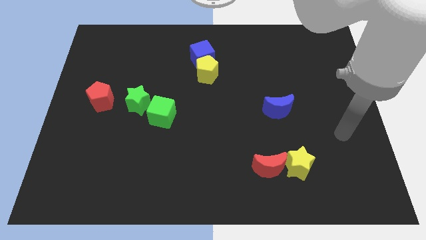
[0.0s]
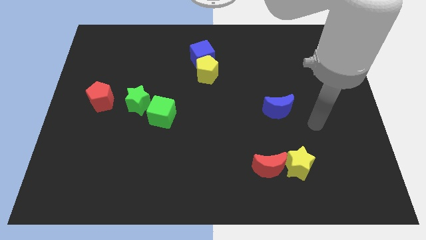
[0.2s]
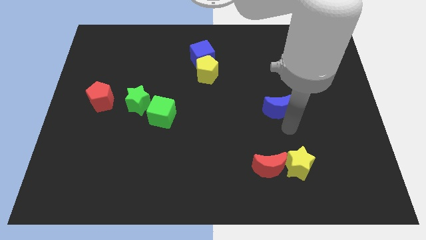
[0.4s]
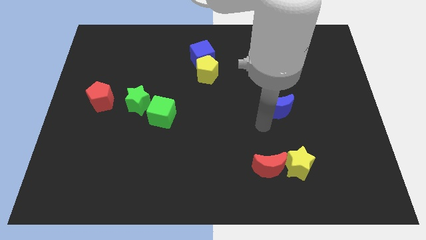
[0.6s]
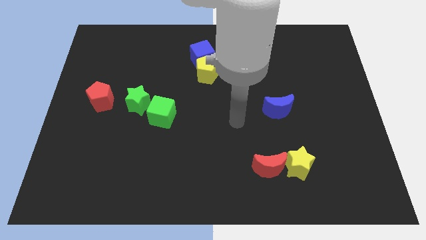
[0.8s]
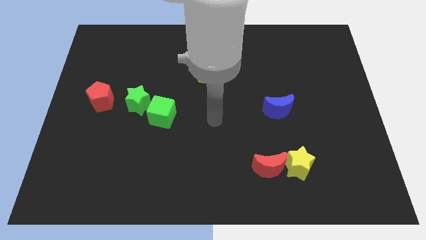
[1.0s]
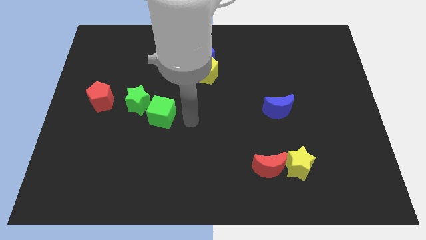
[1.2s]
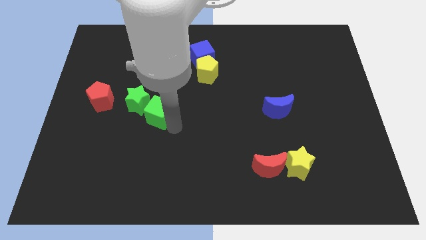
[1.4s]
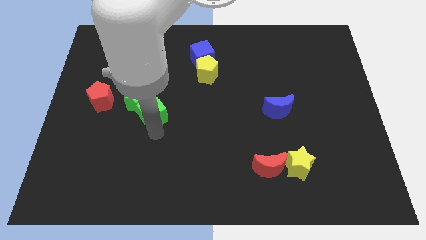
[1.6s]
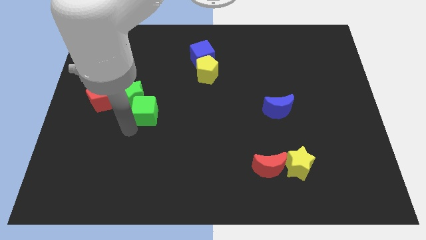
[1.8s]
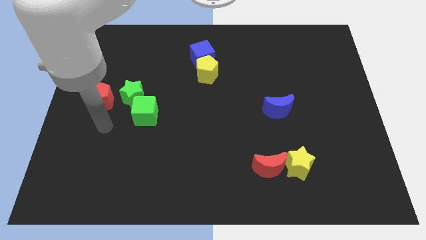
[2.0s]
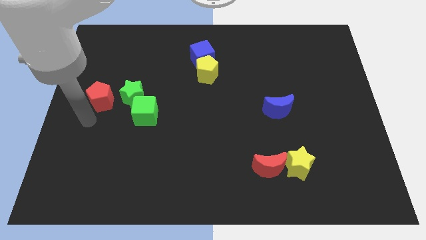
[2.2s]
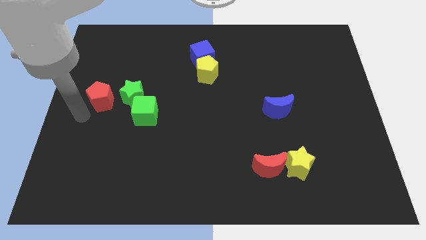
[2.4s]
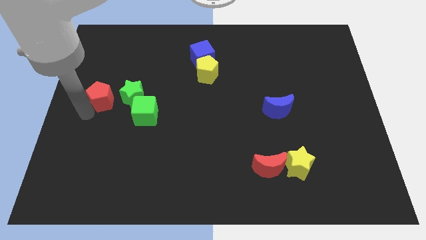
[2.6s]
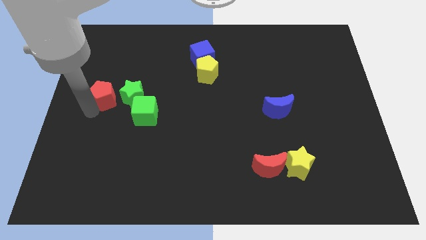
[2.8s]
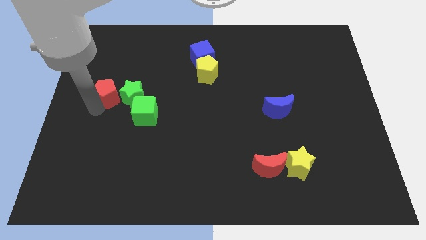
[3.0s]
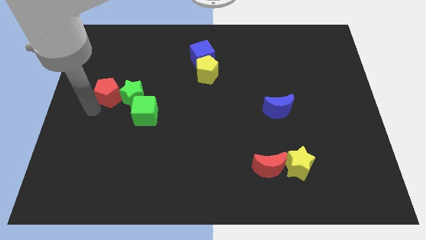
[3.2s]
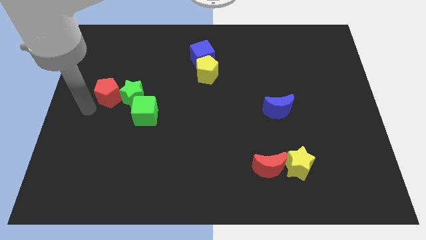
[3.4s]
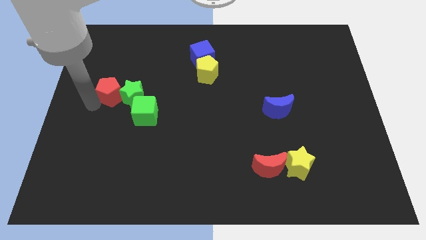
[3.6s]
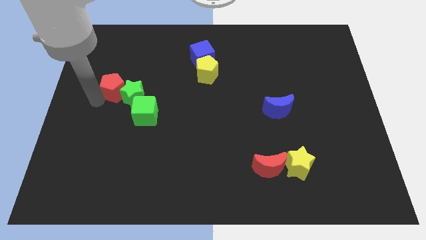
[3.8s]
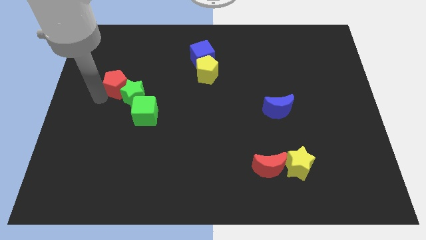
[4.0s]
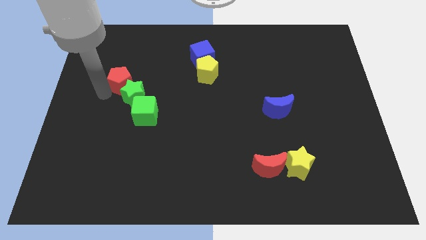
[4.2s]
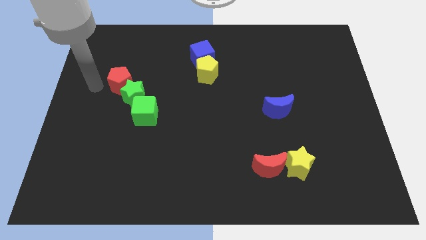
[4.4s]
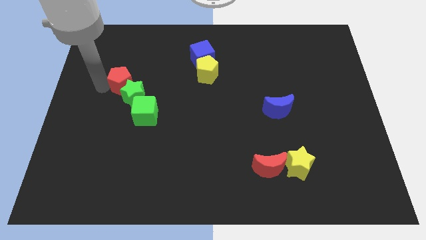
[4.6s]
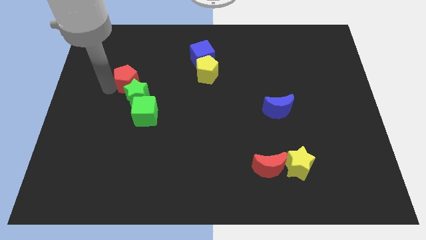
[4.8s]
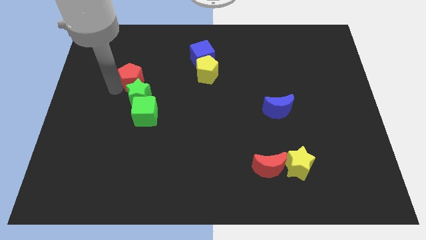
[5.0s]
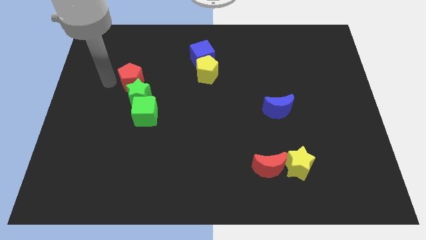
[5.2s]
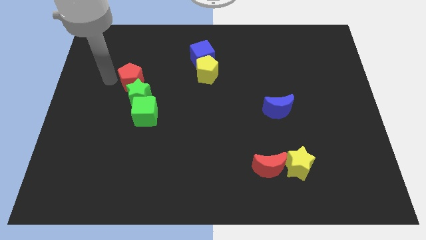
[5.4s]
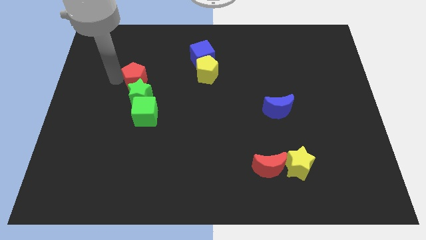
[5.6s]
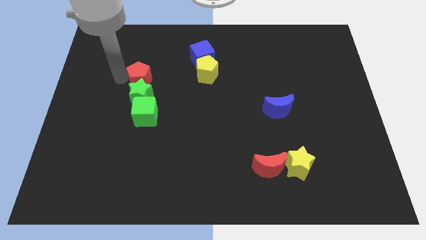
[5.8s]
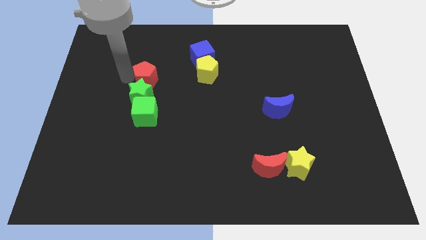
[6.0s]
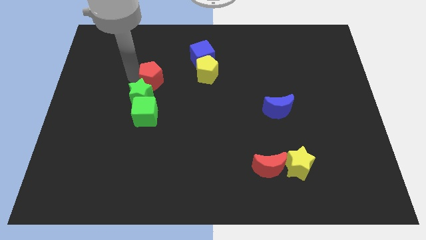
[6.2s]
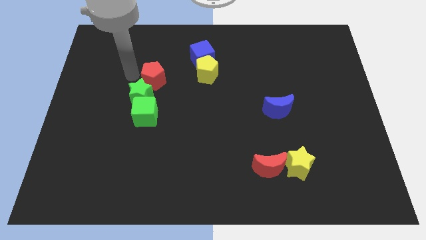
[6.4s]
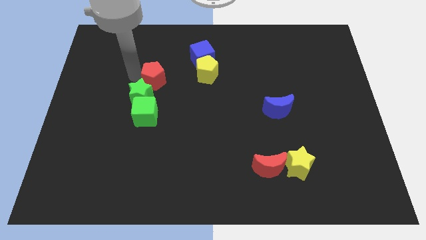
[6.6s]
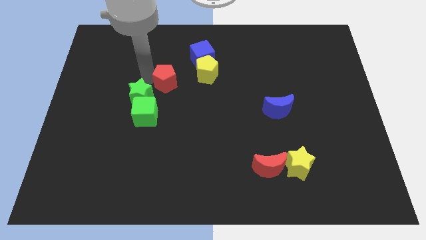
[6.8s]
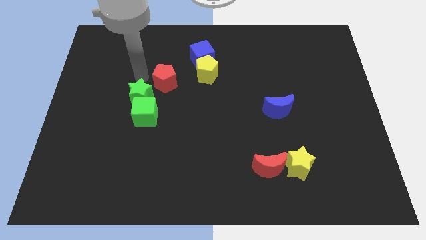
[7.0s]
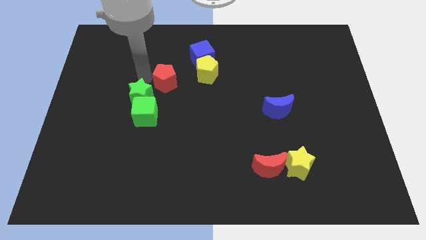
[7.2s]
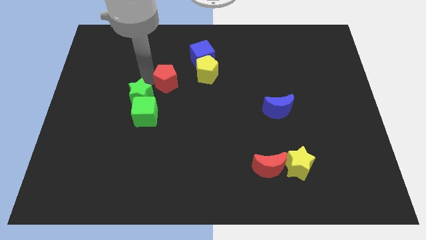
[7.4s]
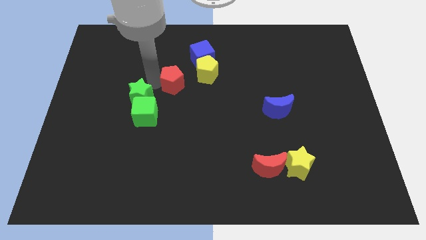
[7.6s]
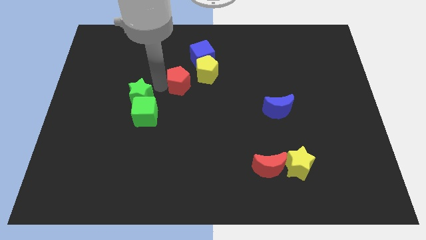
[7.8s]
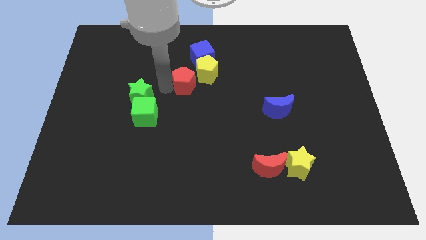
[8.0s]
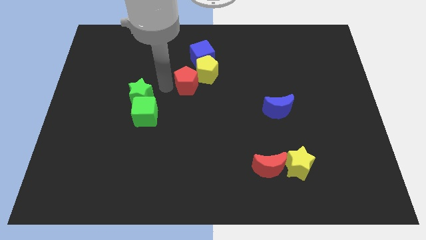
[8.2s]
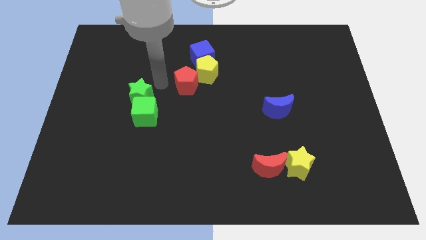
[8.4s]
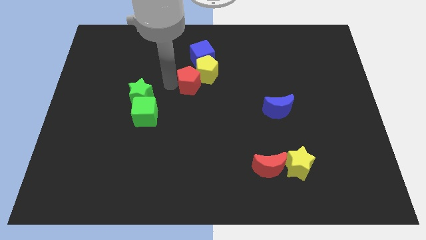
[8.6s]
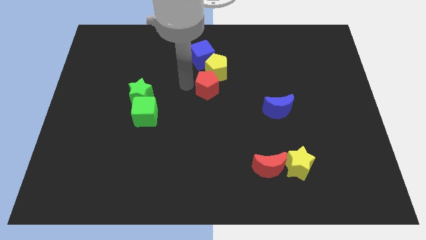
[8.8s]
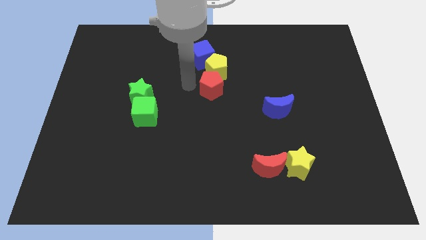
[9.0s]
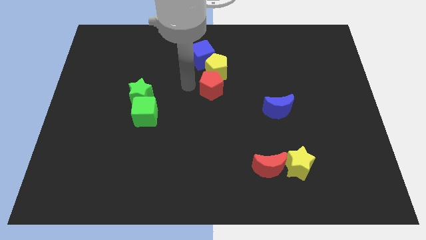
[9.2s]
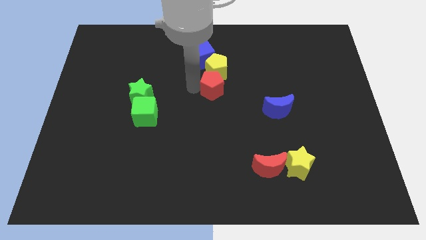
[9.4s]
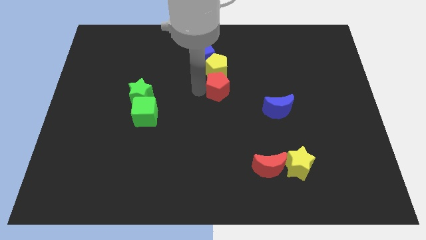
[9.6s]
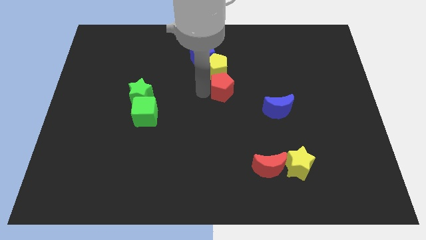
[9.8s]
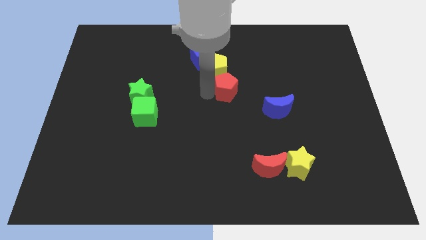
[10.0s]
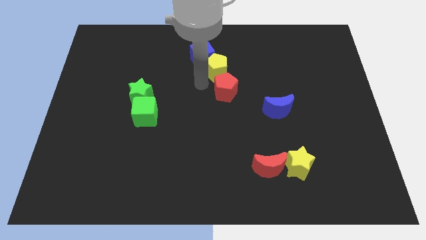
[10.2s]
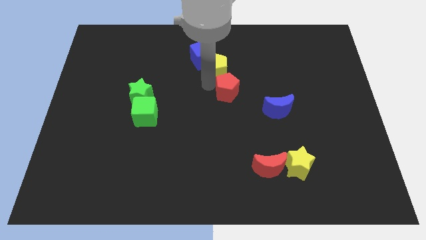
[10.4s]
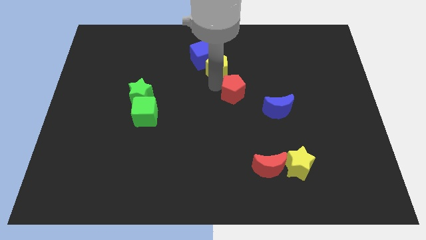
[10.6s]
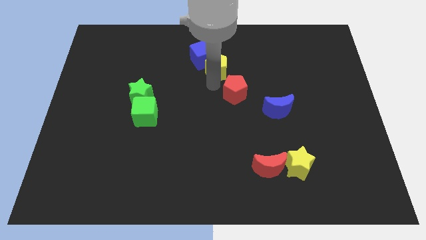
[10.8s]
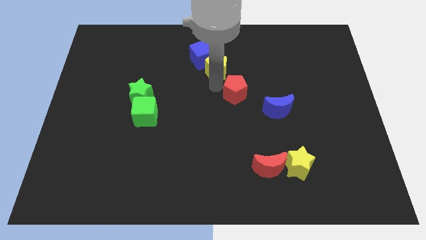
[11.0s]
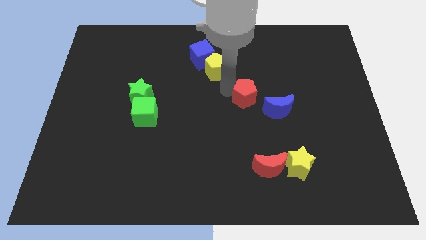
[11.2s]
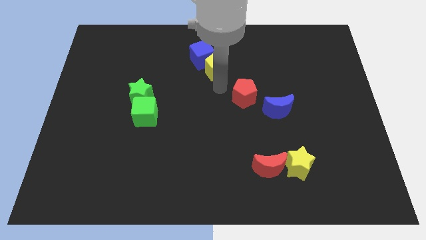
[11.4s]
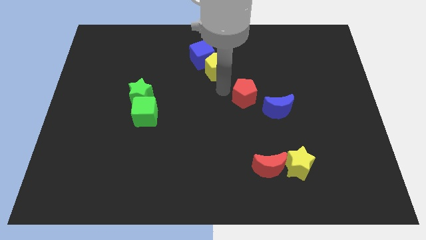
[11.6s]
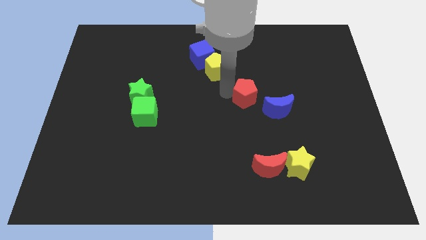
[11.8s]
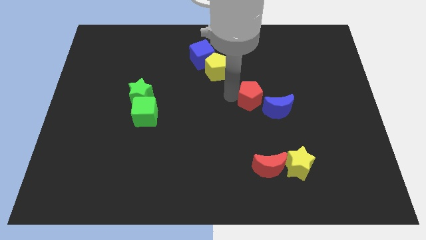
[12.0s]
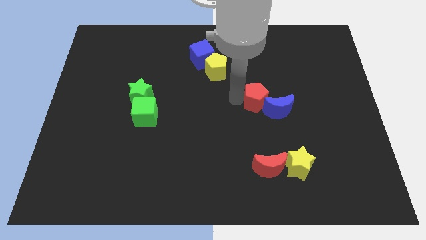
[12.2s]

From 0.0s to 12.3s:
slide the red pentagon next to the blue moon

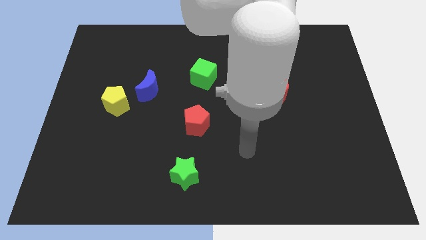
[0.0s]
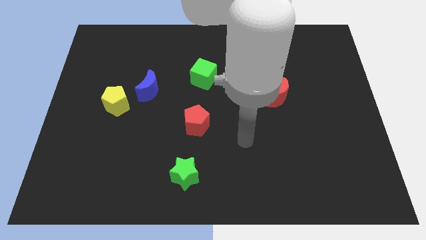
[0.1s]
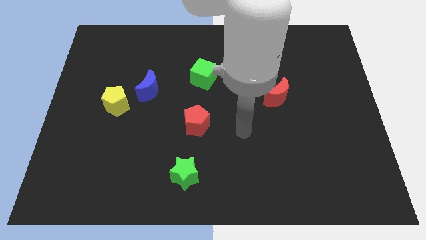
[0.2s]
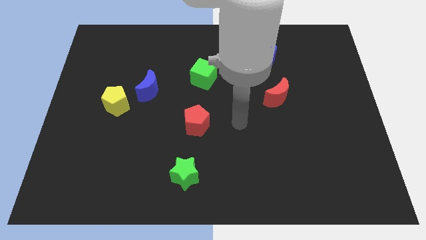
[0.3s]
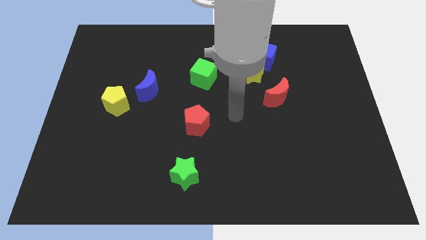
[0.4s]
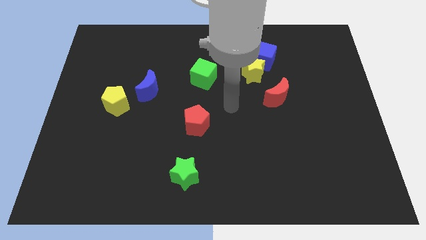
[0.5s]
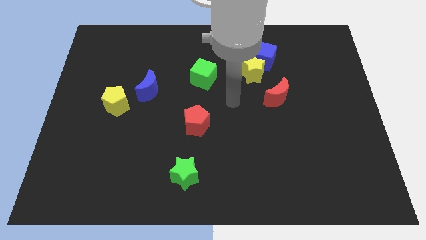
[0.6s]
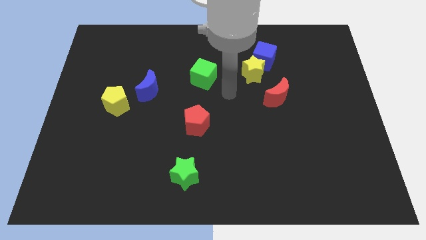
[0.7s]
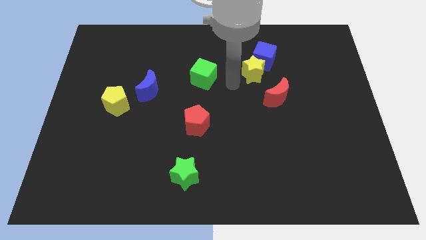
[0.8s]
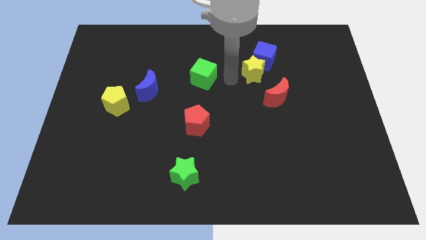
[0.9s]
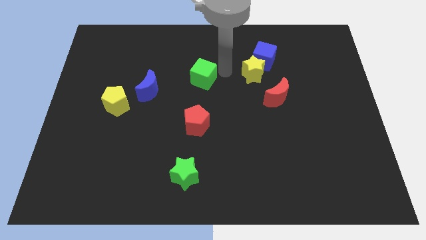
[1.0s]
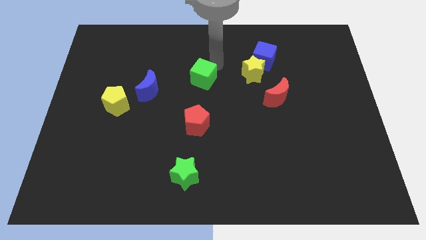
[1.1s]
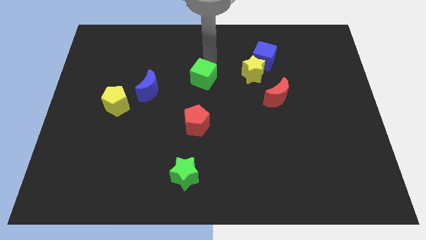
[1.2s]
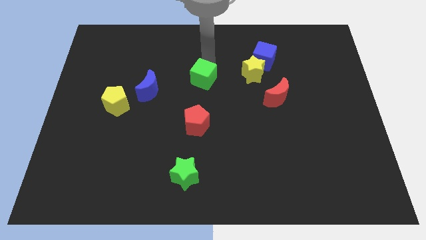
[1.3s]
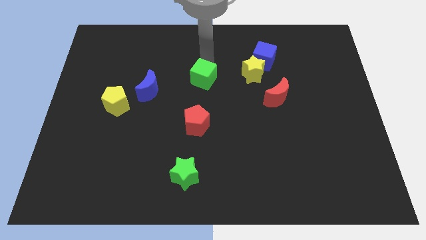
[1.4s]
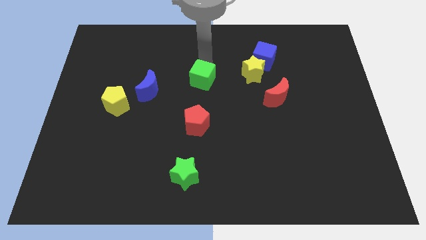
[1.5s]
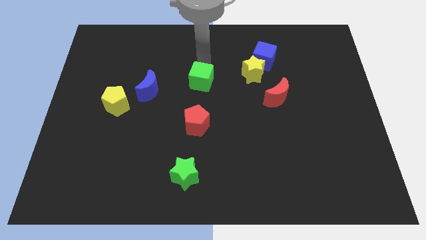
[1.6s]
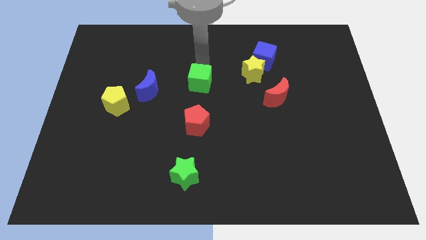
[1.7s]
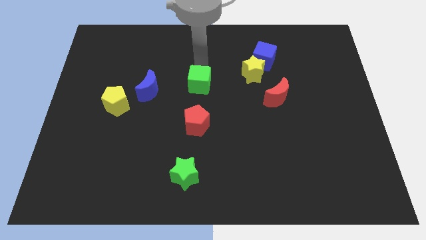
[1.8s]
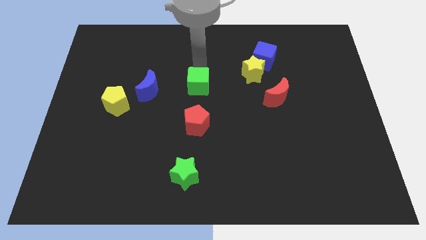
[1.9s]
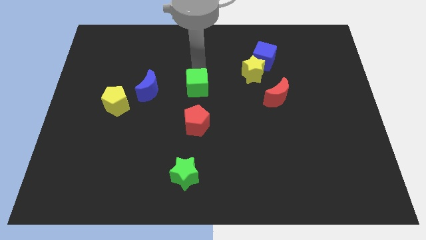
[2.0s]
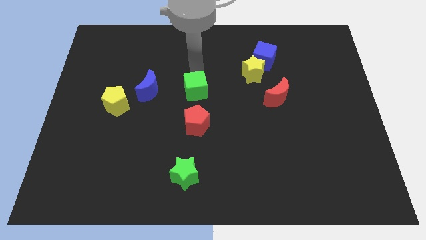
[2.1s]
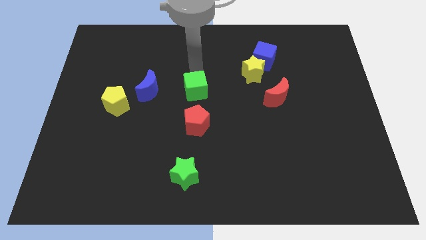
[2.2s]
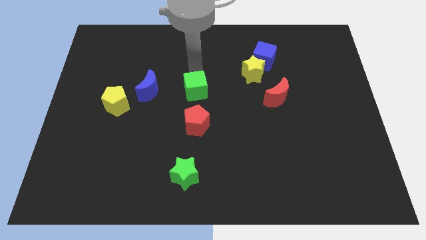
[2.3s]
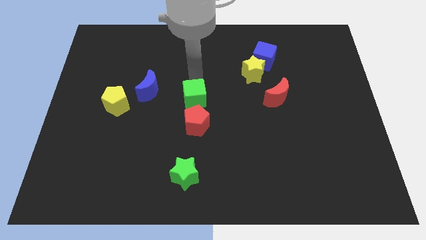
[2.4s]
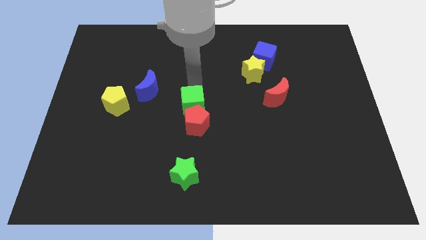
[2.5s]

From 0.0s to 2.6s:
move the green cube close to the red pentagon
